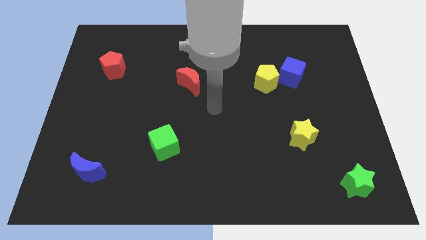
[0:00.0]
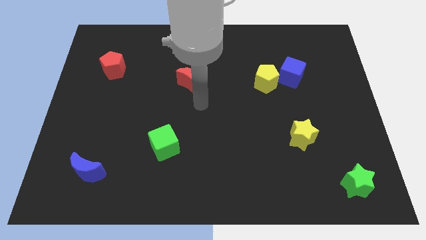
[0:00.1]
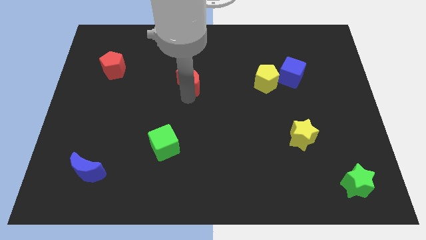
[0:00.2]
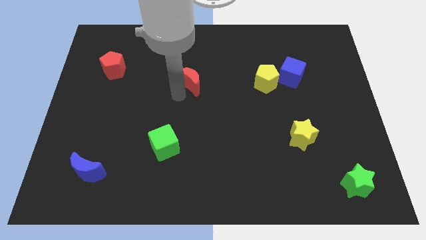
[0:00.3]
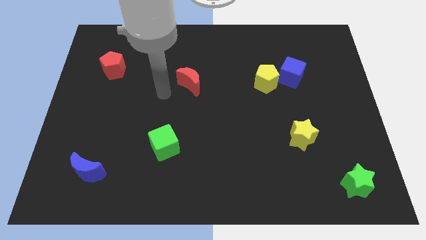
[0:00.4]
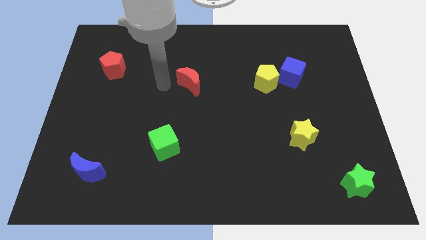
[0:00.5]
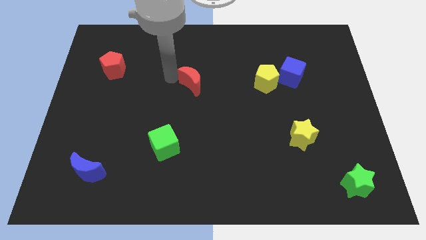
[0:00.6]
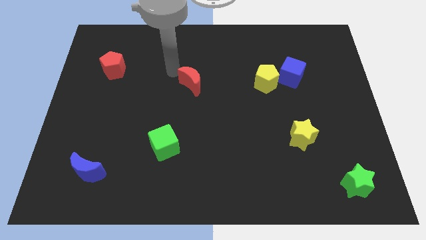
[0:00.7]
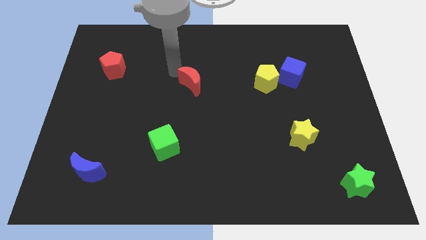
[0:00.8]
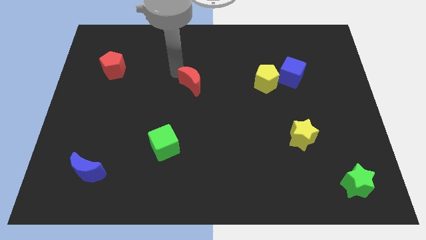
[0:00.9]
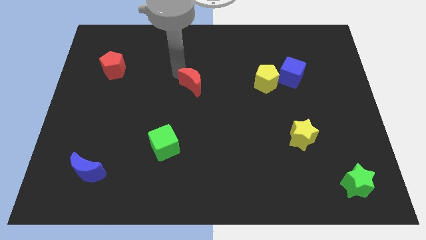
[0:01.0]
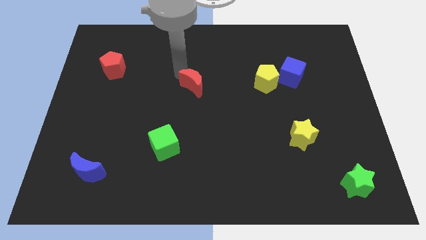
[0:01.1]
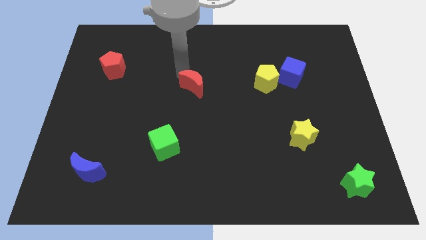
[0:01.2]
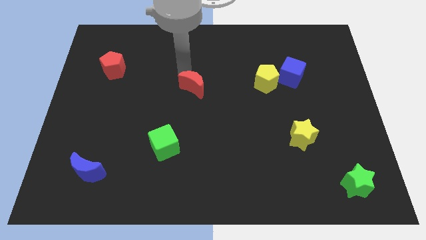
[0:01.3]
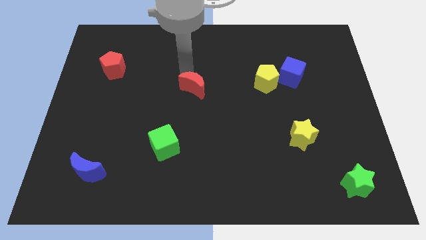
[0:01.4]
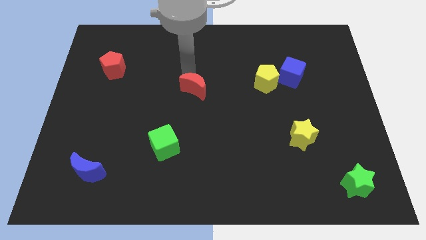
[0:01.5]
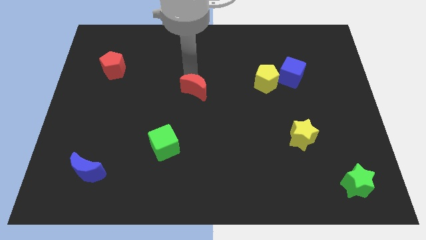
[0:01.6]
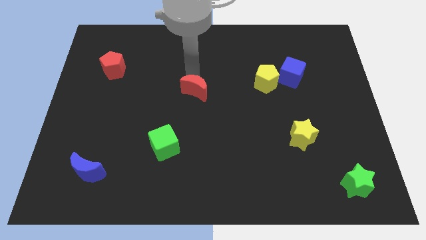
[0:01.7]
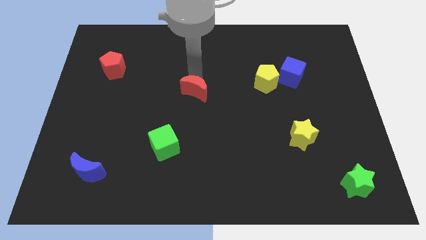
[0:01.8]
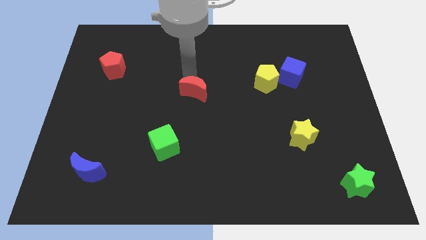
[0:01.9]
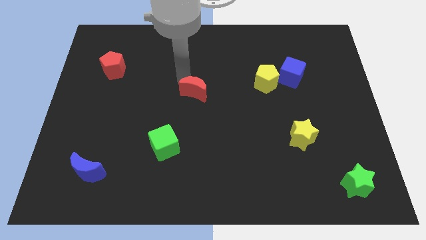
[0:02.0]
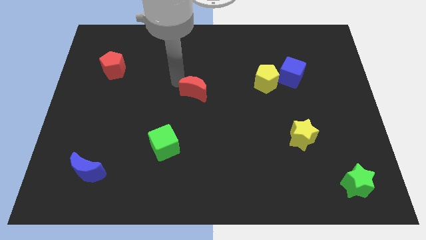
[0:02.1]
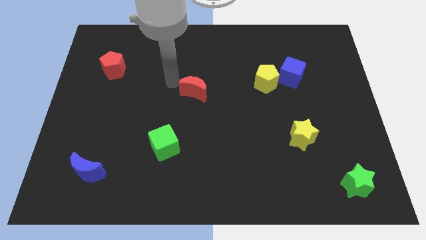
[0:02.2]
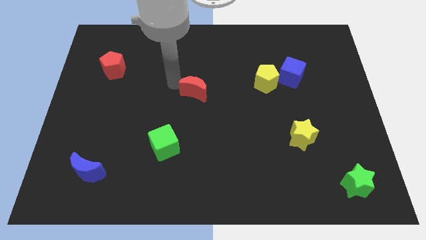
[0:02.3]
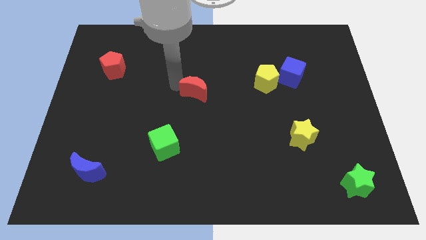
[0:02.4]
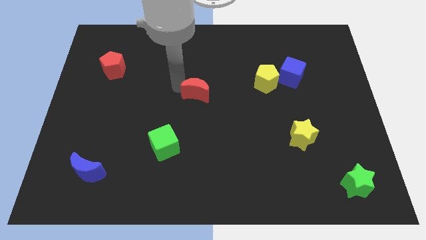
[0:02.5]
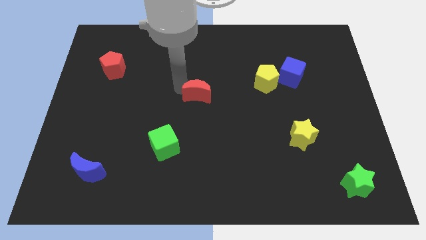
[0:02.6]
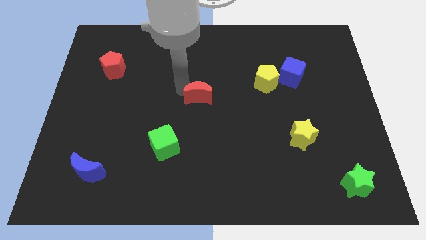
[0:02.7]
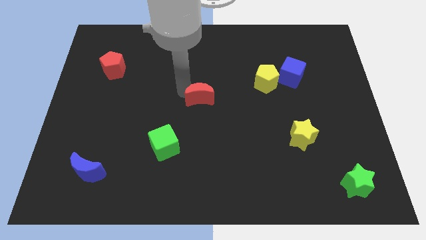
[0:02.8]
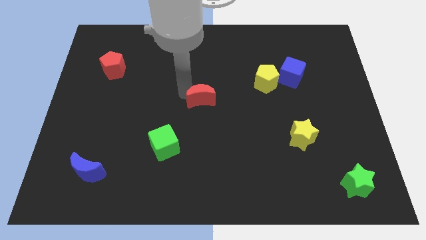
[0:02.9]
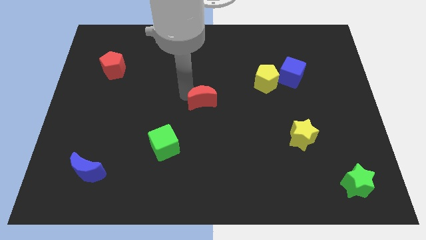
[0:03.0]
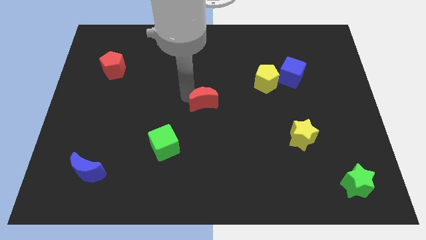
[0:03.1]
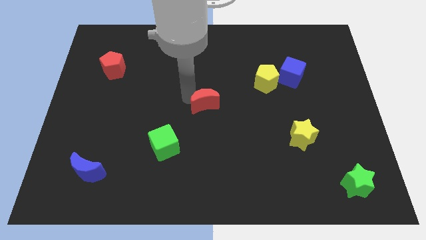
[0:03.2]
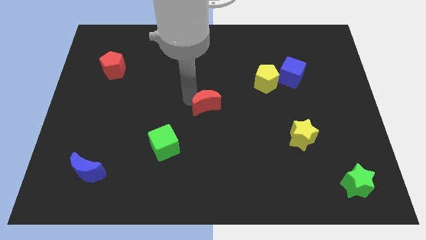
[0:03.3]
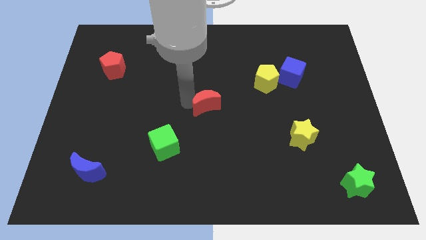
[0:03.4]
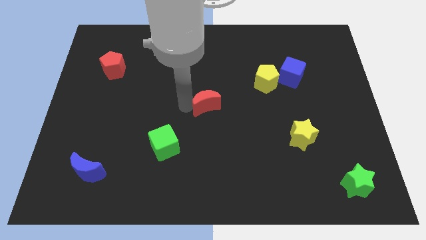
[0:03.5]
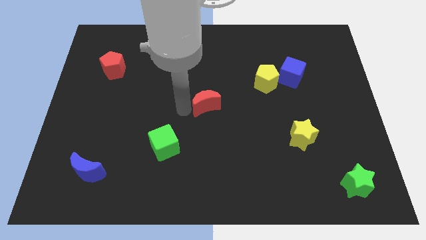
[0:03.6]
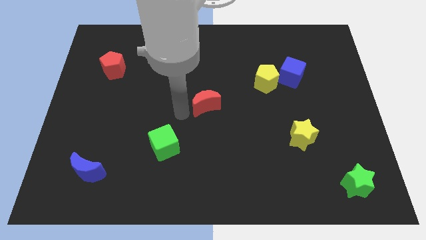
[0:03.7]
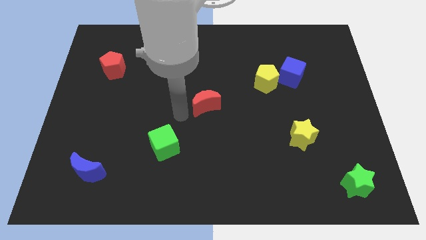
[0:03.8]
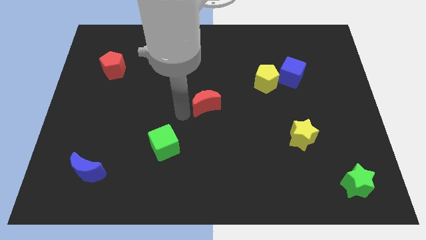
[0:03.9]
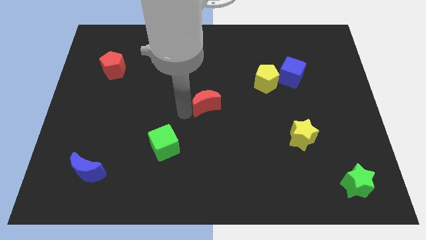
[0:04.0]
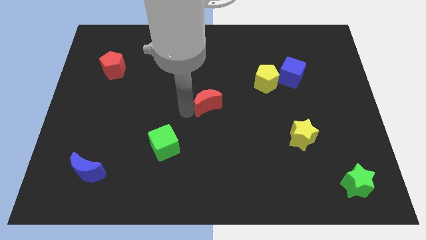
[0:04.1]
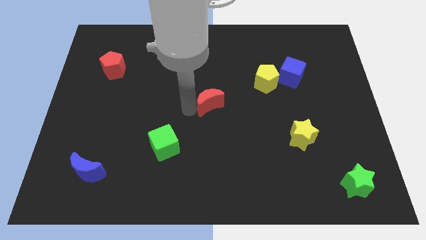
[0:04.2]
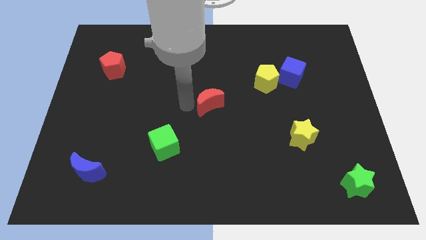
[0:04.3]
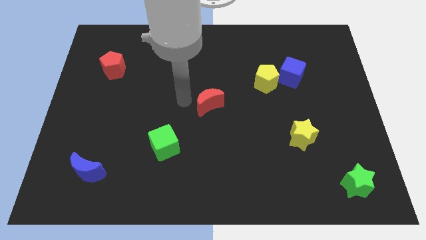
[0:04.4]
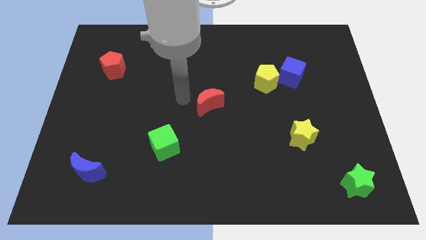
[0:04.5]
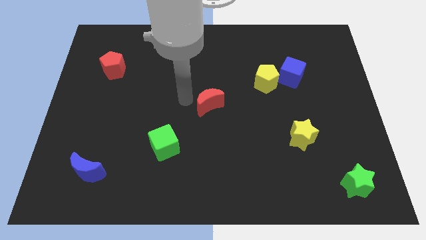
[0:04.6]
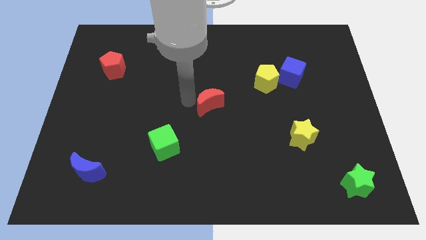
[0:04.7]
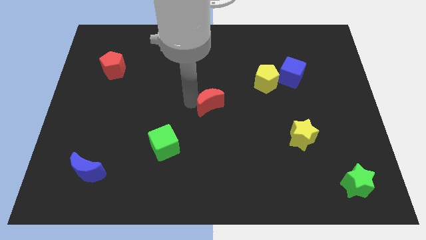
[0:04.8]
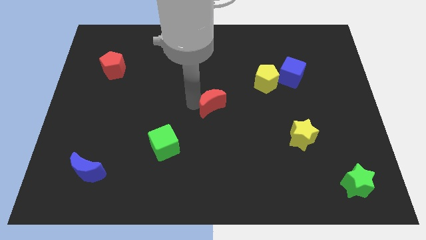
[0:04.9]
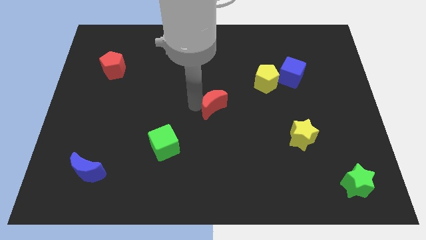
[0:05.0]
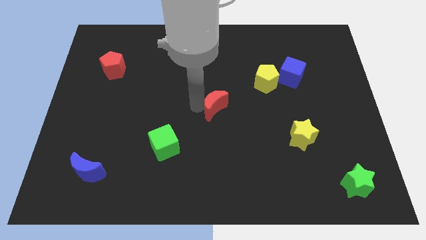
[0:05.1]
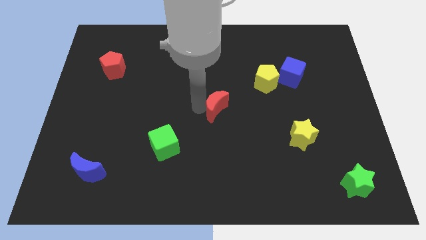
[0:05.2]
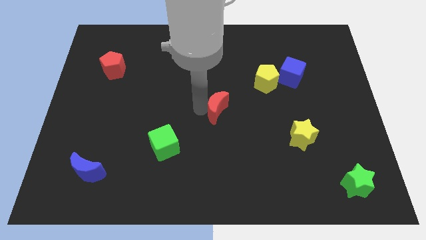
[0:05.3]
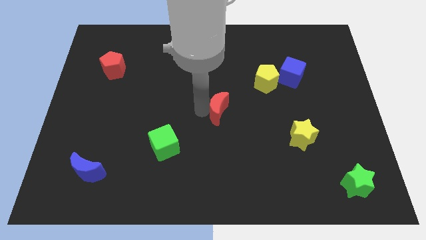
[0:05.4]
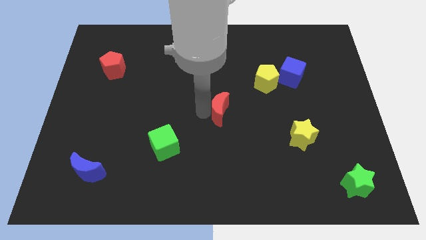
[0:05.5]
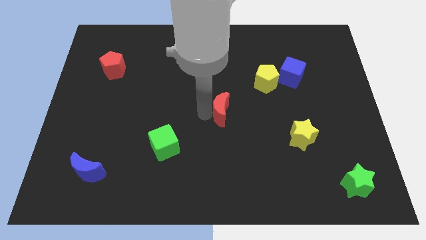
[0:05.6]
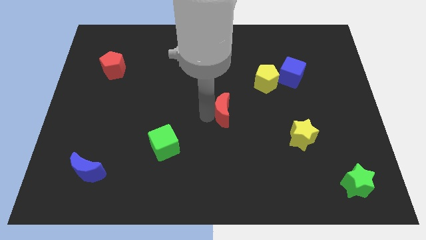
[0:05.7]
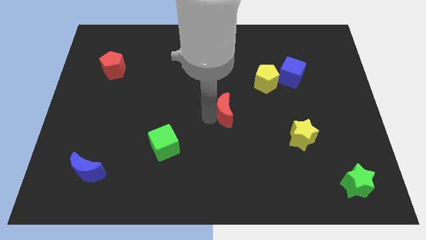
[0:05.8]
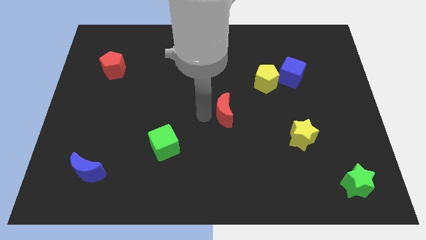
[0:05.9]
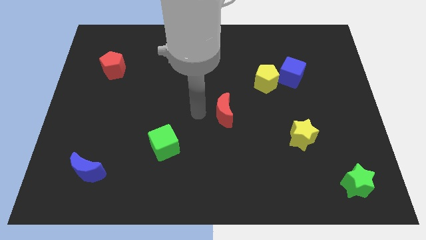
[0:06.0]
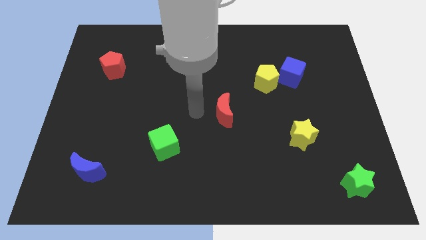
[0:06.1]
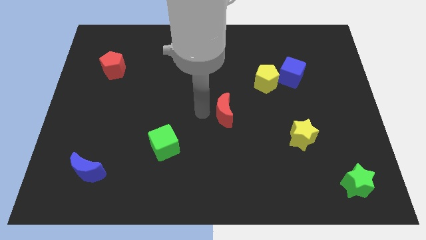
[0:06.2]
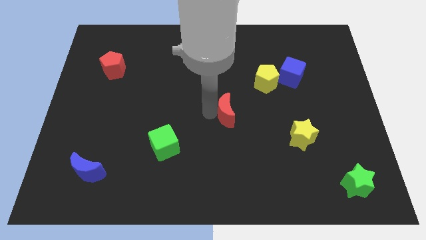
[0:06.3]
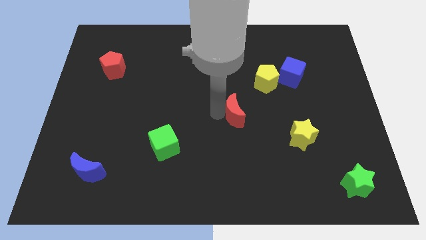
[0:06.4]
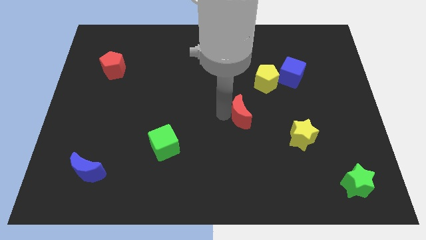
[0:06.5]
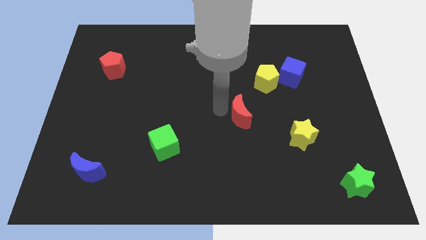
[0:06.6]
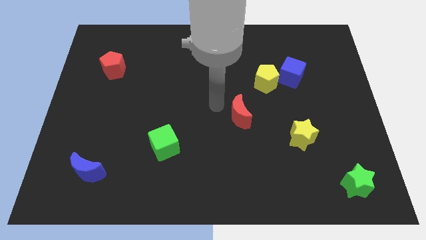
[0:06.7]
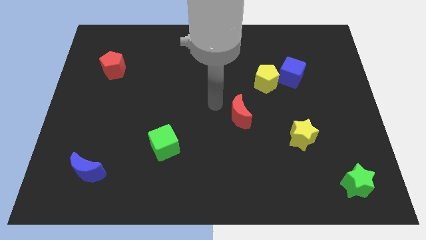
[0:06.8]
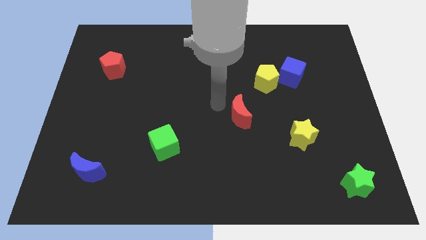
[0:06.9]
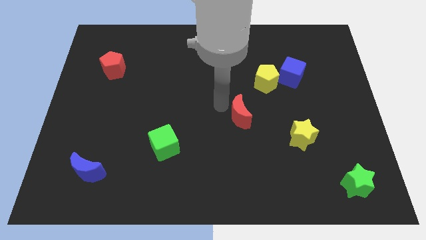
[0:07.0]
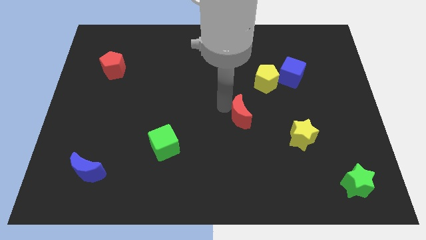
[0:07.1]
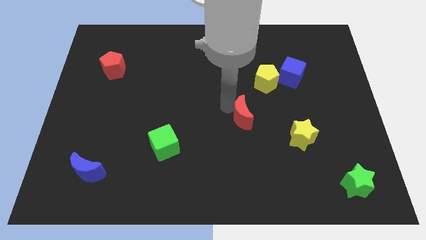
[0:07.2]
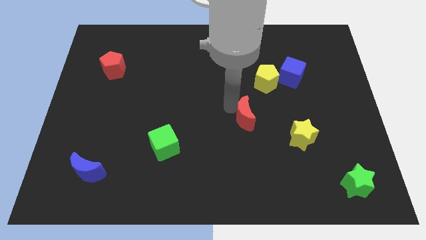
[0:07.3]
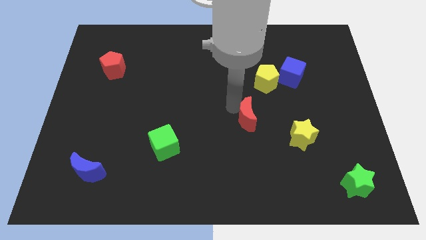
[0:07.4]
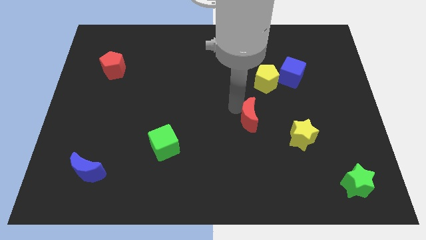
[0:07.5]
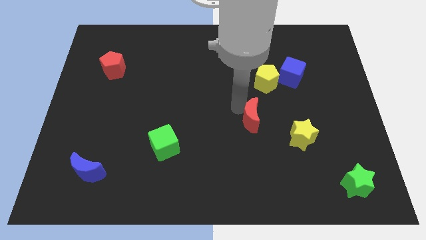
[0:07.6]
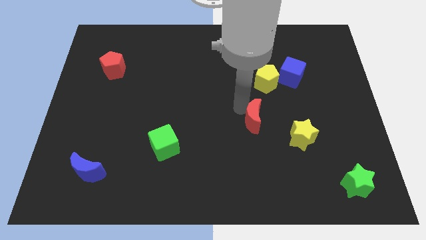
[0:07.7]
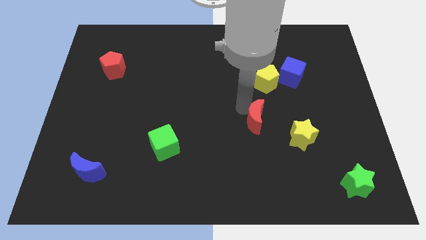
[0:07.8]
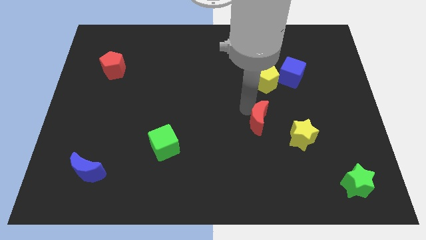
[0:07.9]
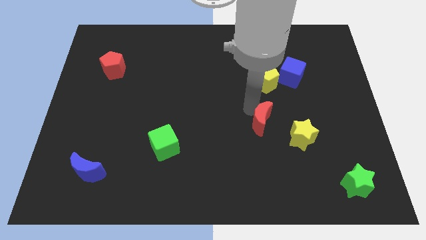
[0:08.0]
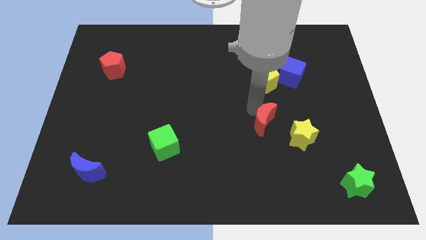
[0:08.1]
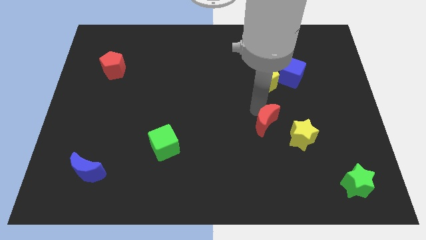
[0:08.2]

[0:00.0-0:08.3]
push the red moon downwards and then to the right
